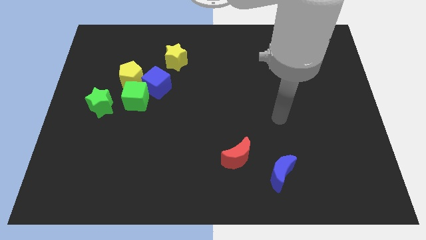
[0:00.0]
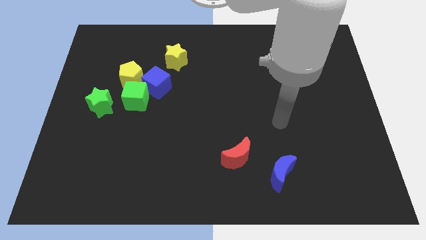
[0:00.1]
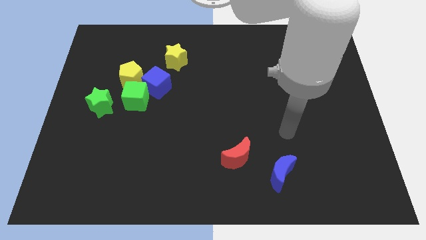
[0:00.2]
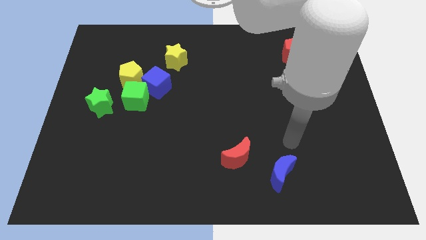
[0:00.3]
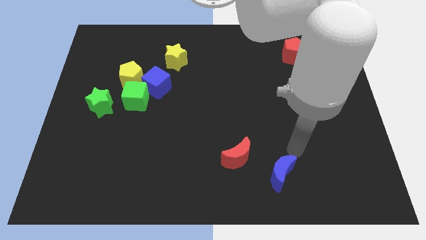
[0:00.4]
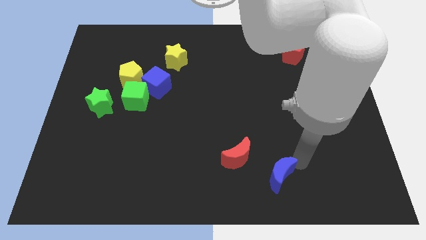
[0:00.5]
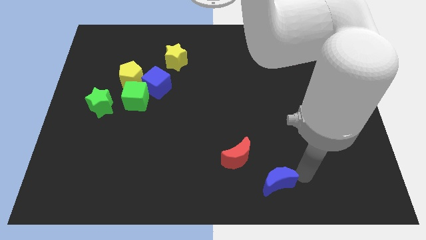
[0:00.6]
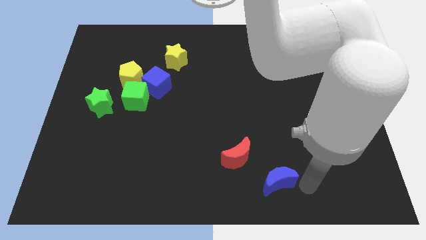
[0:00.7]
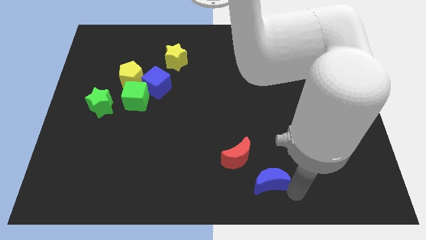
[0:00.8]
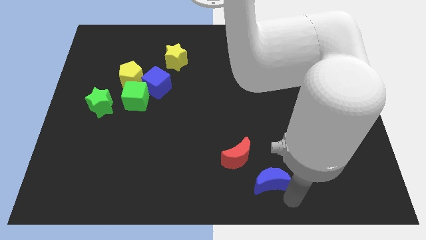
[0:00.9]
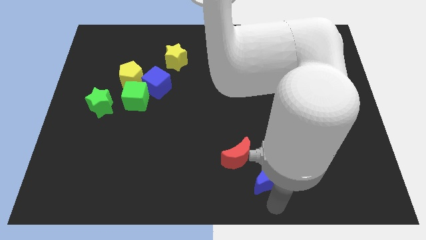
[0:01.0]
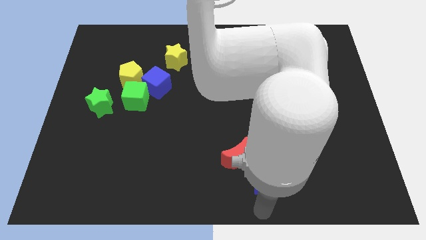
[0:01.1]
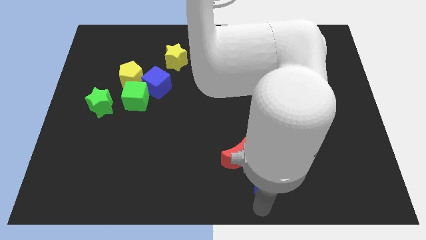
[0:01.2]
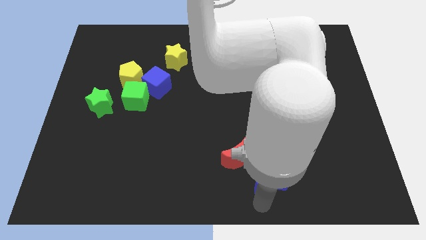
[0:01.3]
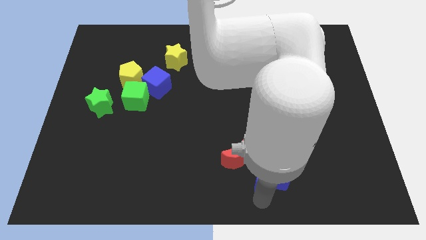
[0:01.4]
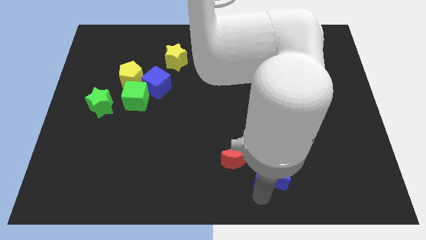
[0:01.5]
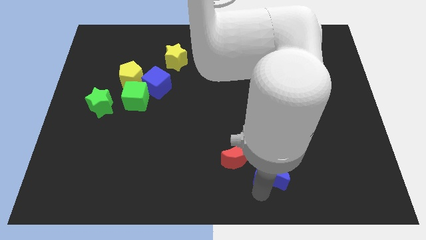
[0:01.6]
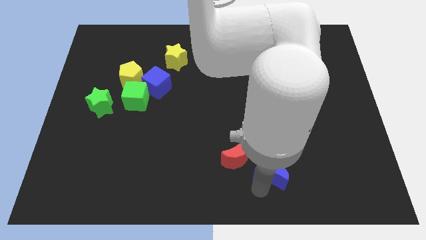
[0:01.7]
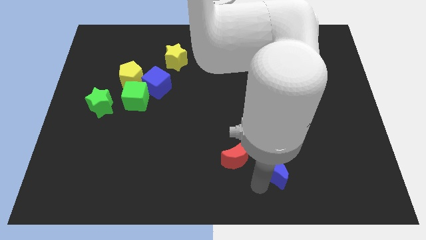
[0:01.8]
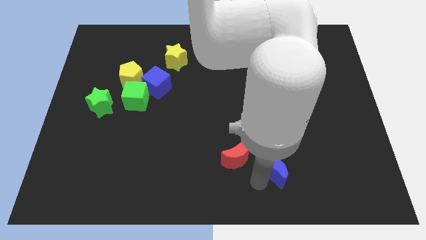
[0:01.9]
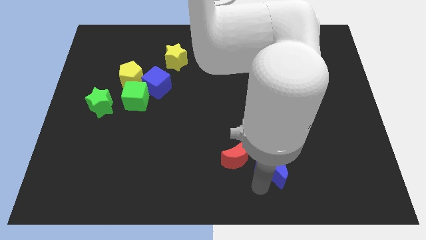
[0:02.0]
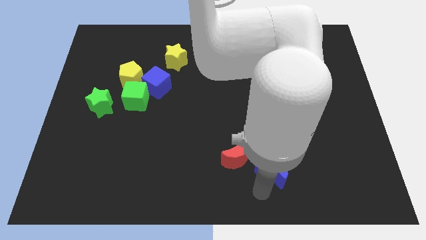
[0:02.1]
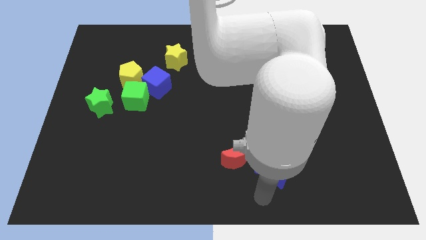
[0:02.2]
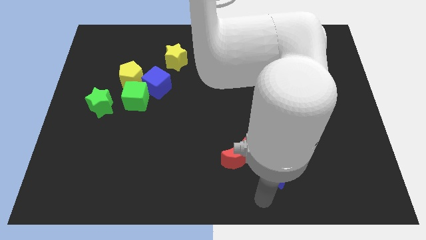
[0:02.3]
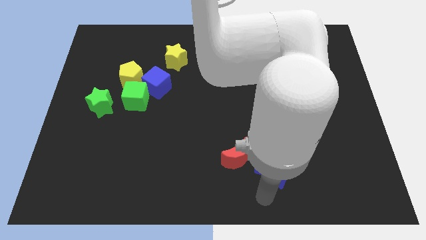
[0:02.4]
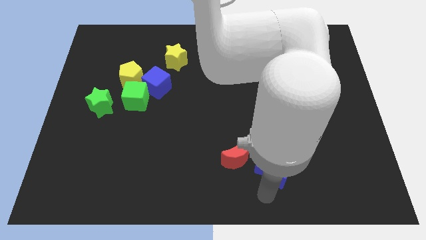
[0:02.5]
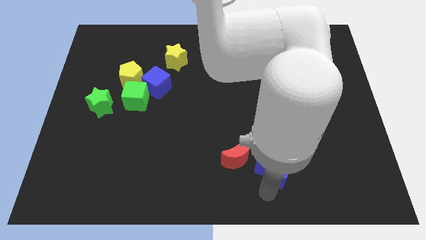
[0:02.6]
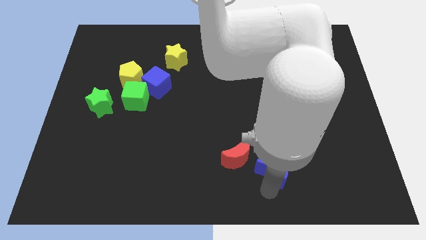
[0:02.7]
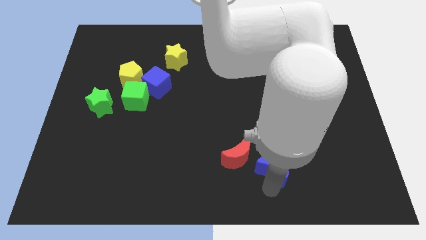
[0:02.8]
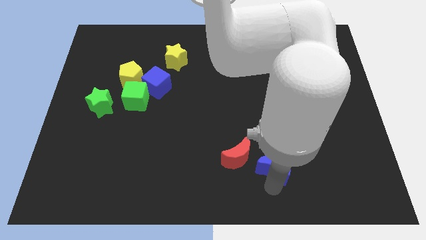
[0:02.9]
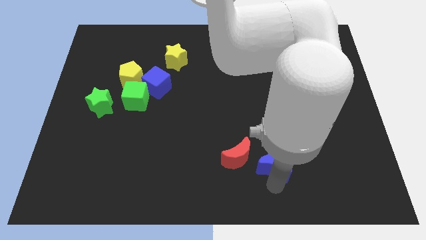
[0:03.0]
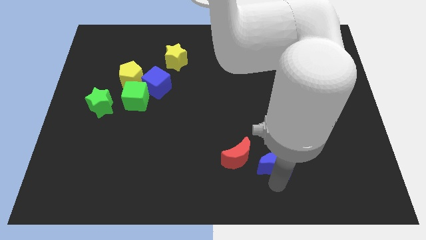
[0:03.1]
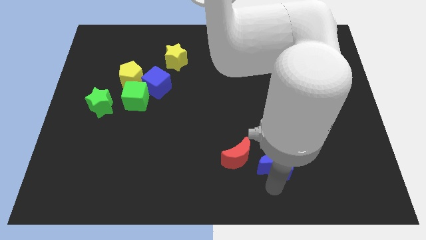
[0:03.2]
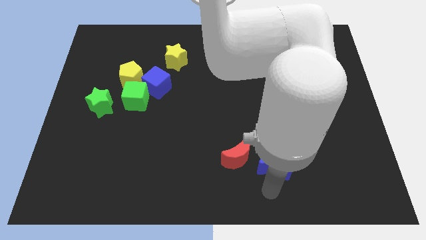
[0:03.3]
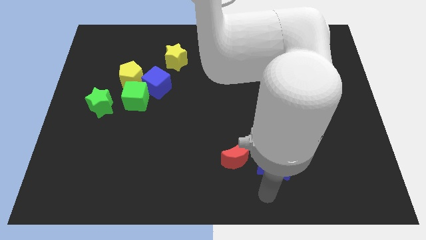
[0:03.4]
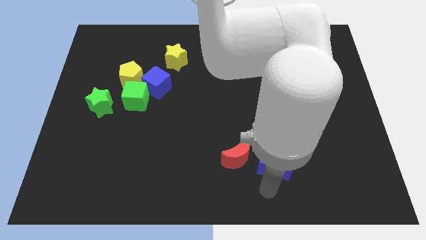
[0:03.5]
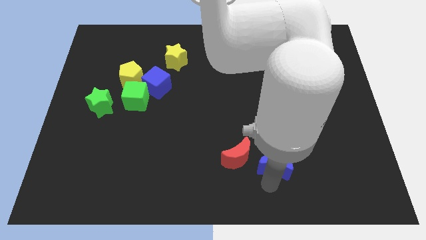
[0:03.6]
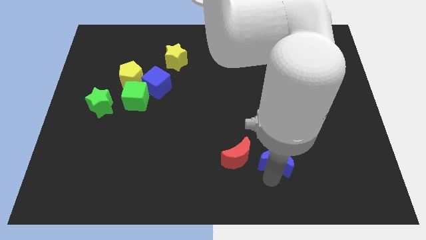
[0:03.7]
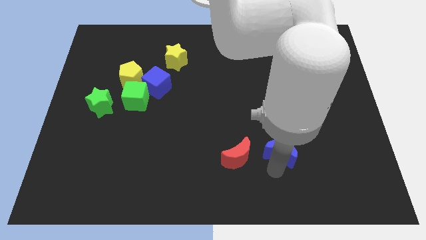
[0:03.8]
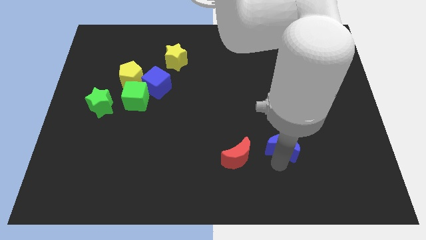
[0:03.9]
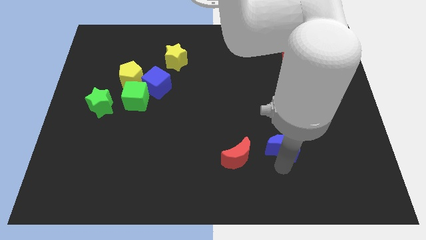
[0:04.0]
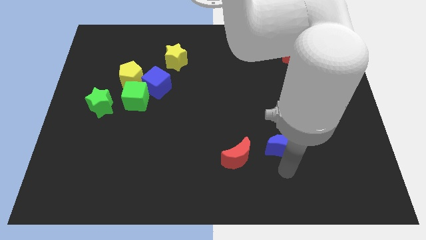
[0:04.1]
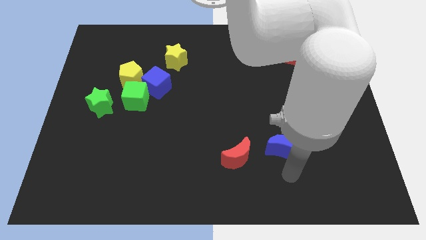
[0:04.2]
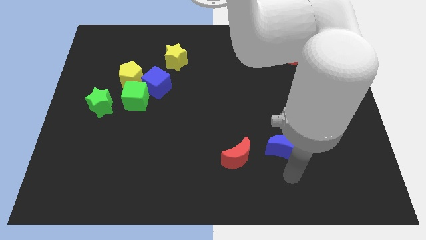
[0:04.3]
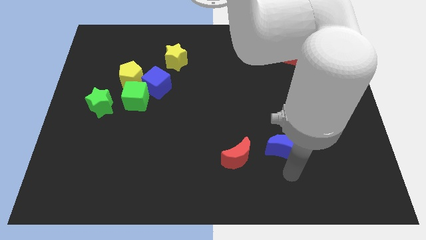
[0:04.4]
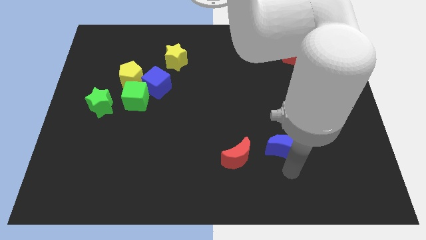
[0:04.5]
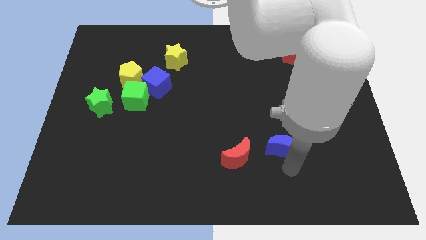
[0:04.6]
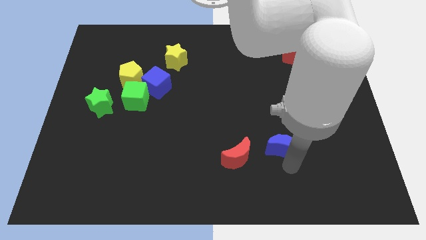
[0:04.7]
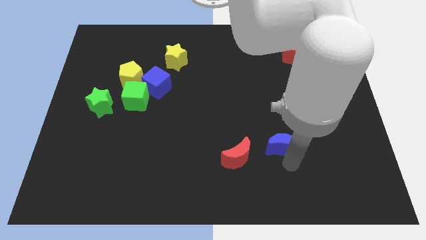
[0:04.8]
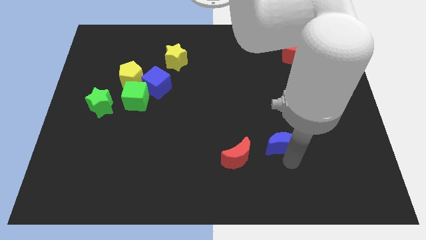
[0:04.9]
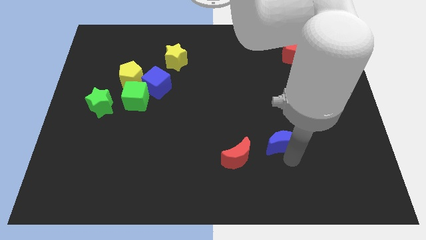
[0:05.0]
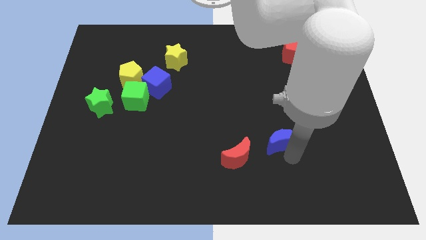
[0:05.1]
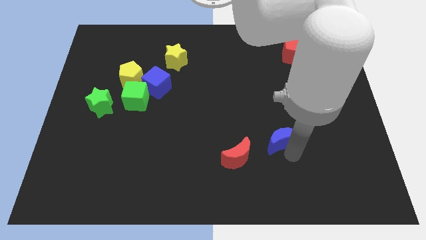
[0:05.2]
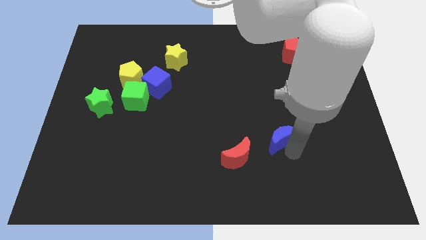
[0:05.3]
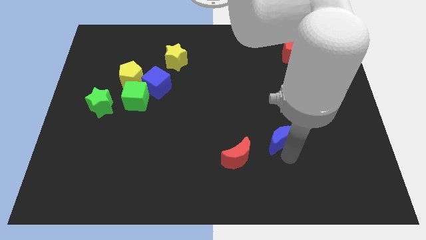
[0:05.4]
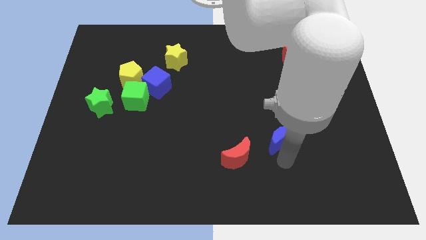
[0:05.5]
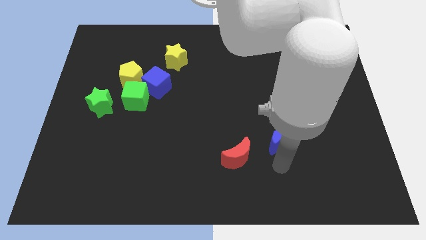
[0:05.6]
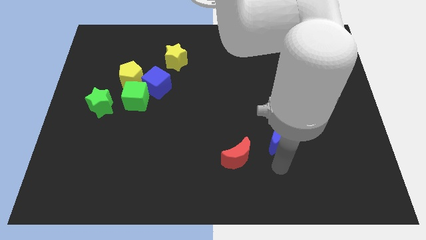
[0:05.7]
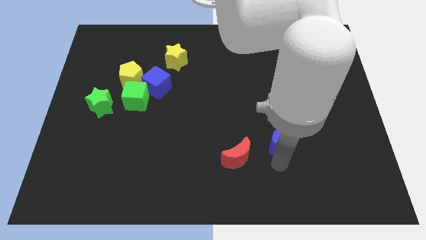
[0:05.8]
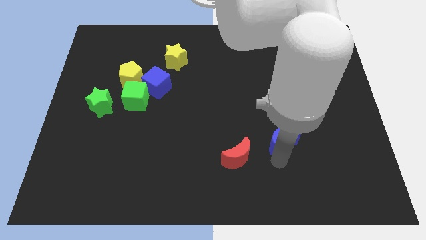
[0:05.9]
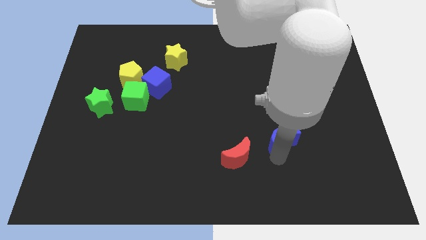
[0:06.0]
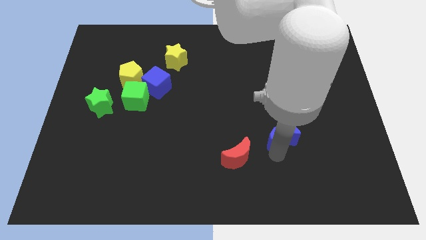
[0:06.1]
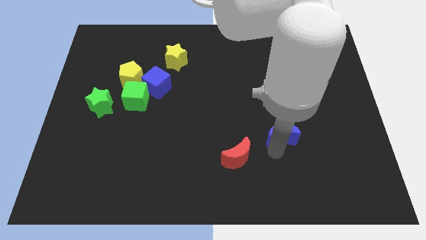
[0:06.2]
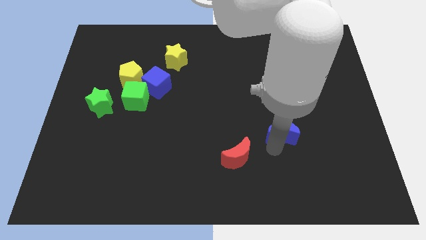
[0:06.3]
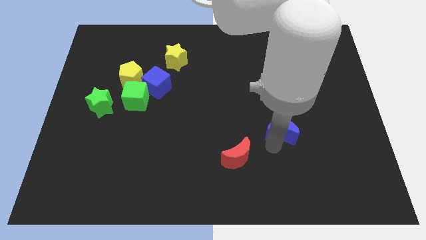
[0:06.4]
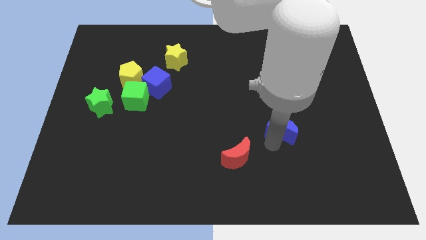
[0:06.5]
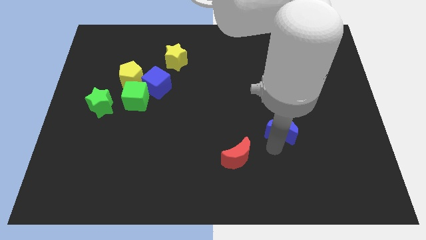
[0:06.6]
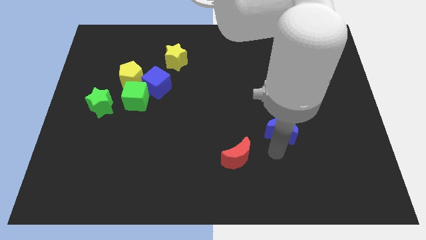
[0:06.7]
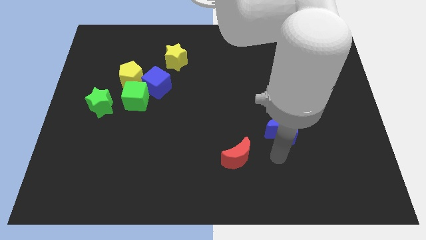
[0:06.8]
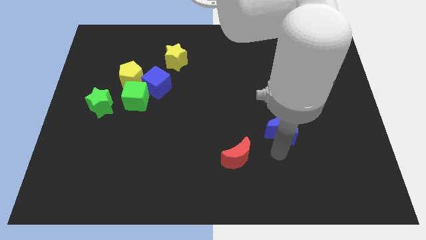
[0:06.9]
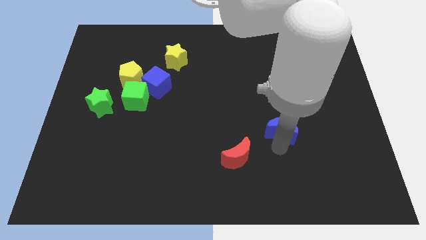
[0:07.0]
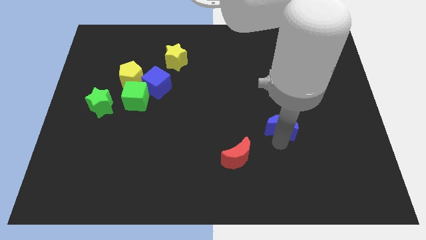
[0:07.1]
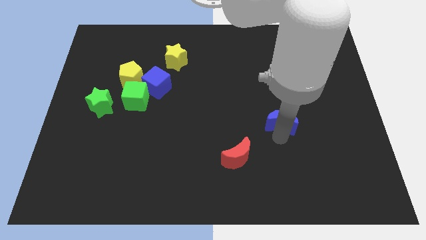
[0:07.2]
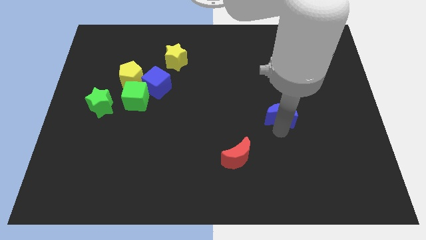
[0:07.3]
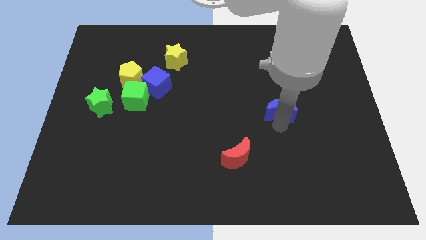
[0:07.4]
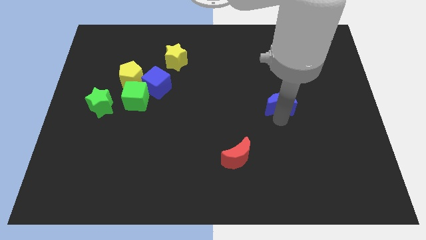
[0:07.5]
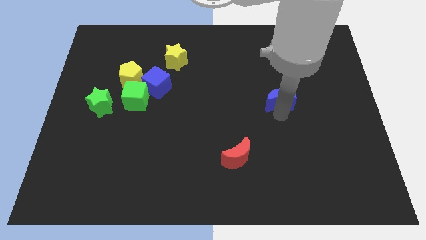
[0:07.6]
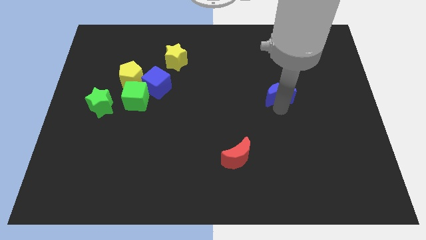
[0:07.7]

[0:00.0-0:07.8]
slide the blue moon upwards

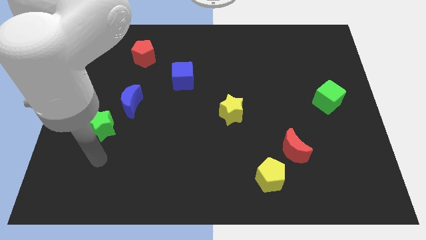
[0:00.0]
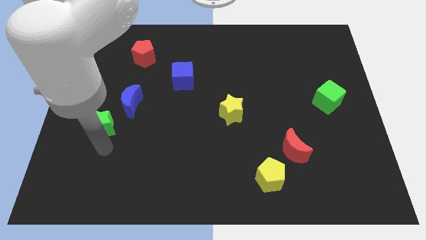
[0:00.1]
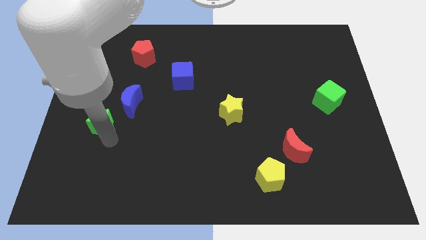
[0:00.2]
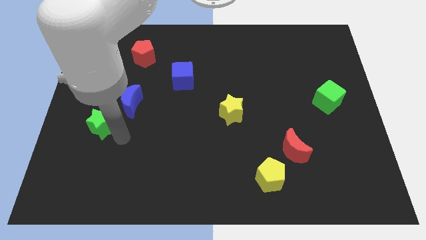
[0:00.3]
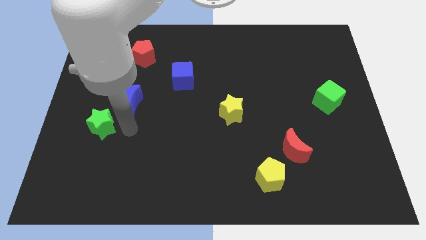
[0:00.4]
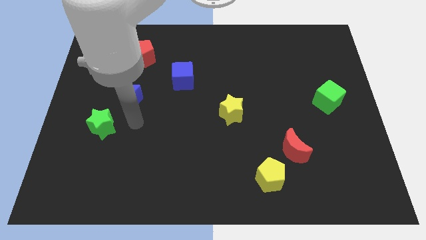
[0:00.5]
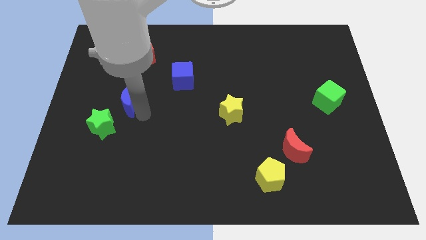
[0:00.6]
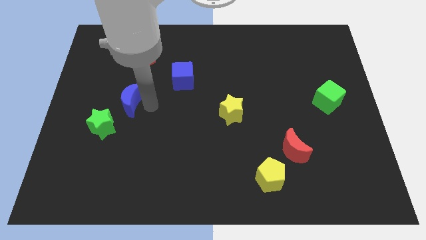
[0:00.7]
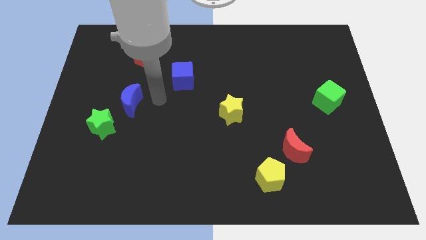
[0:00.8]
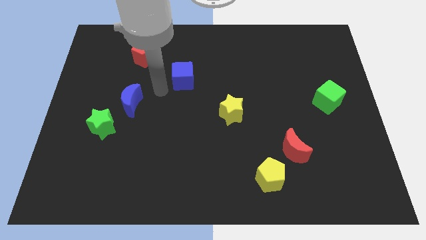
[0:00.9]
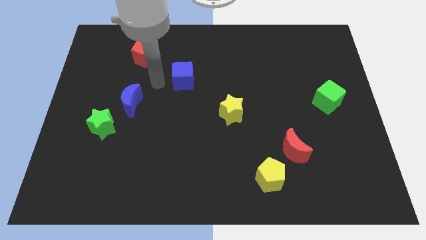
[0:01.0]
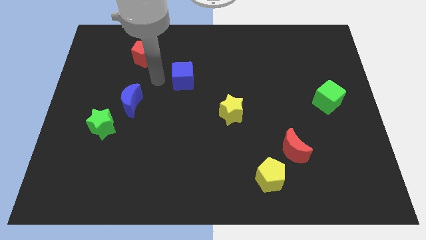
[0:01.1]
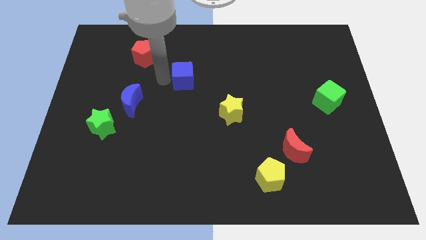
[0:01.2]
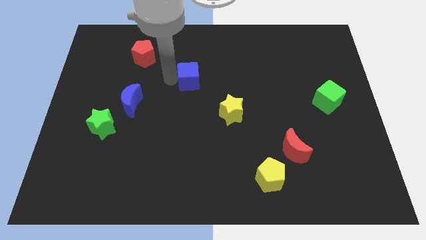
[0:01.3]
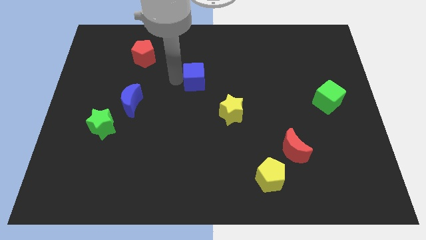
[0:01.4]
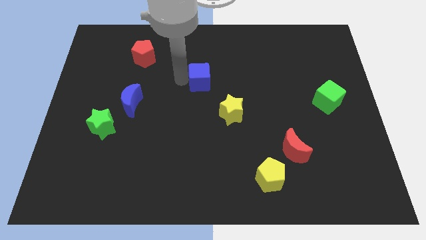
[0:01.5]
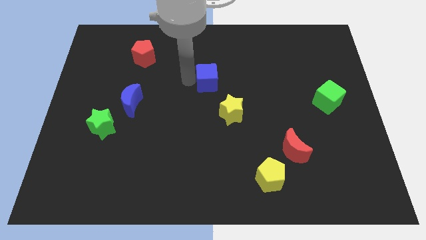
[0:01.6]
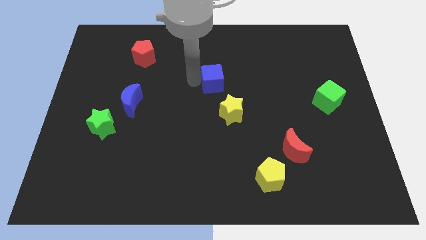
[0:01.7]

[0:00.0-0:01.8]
move the blue cube to the right slightly
